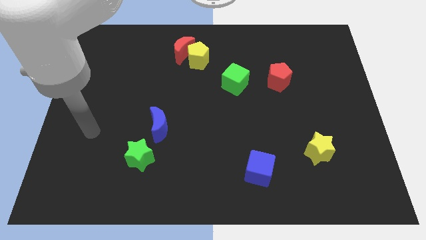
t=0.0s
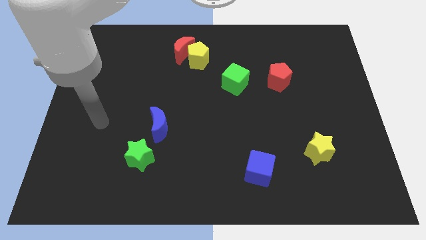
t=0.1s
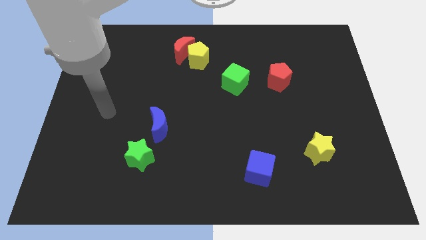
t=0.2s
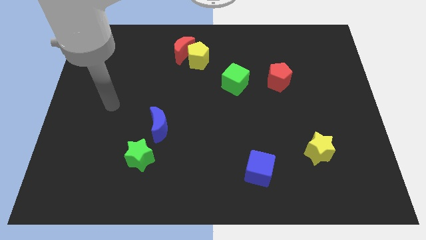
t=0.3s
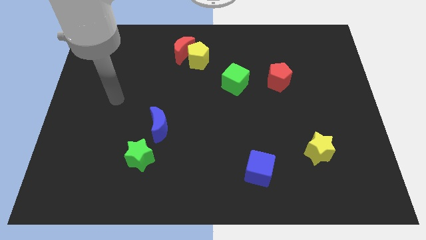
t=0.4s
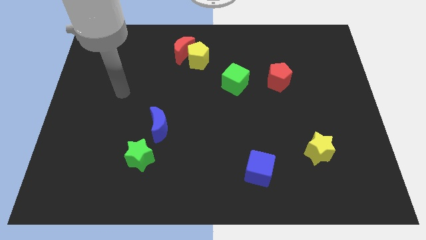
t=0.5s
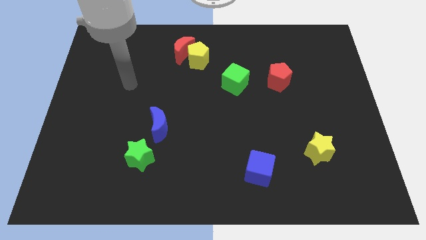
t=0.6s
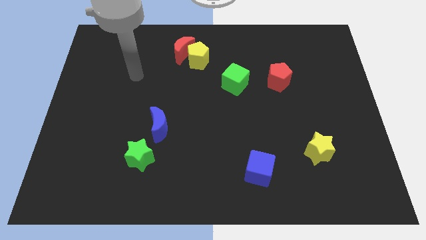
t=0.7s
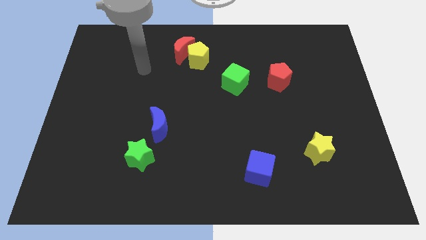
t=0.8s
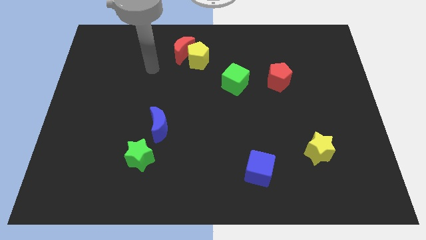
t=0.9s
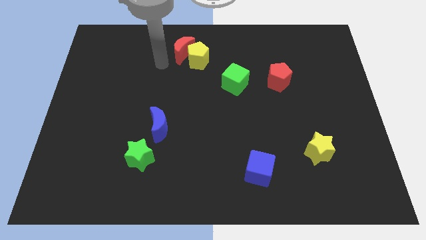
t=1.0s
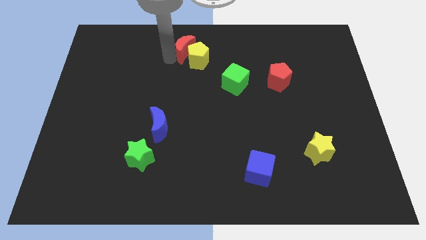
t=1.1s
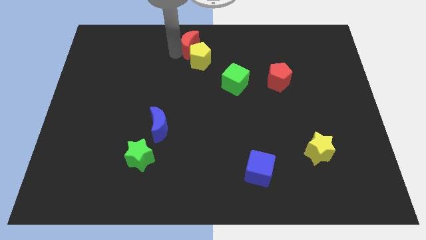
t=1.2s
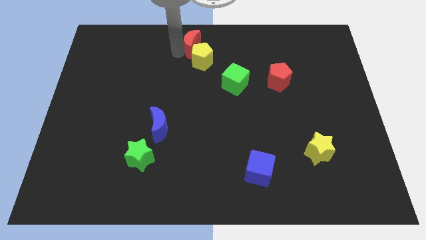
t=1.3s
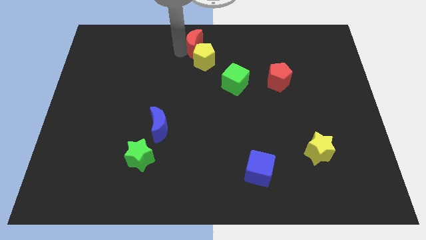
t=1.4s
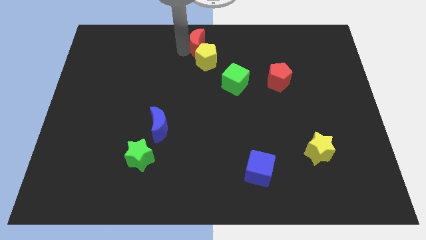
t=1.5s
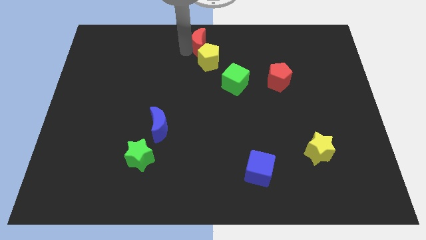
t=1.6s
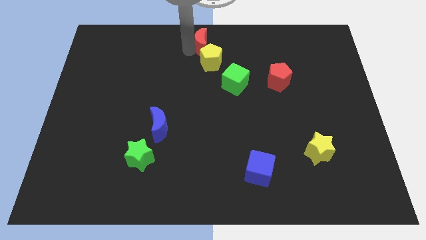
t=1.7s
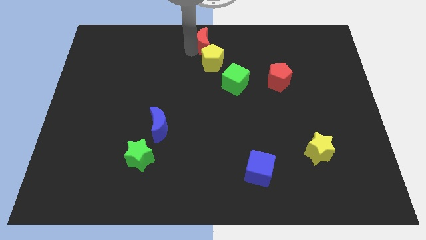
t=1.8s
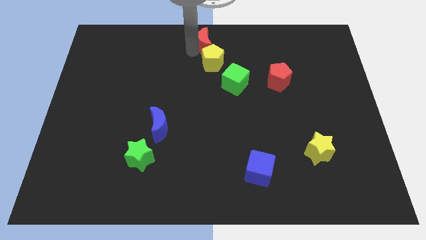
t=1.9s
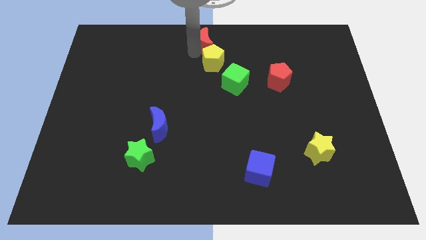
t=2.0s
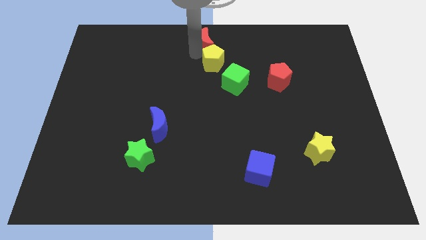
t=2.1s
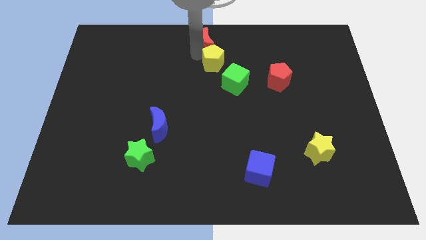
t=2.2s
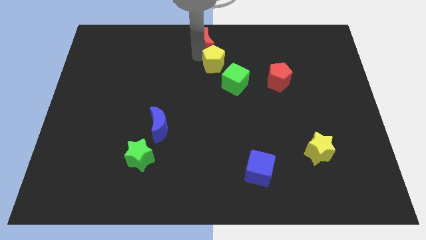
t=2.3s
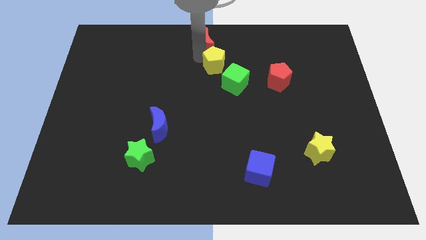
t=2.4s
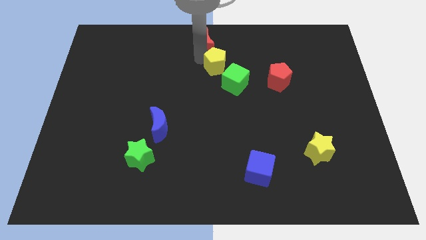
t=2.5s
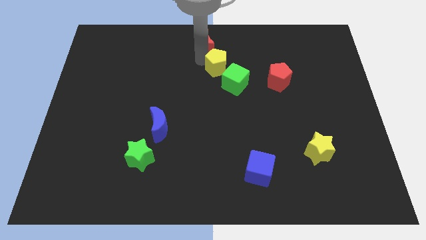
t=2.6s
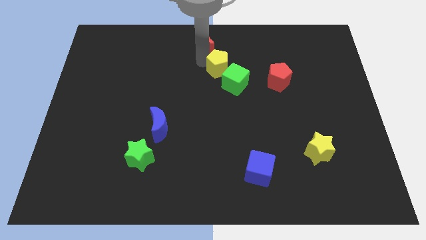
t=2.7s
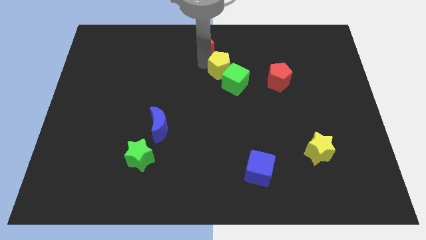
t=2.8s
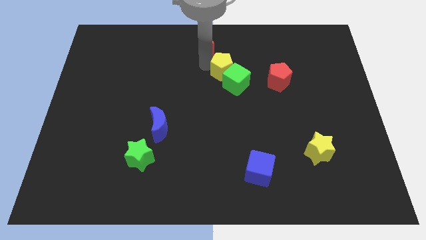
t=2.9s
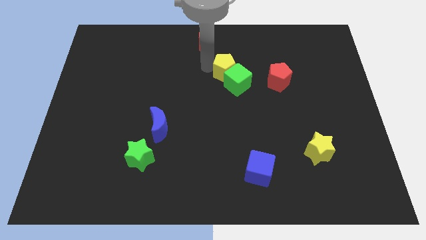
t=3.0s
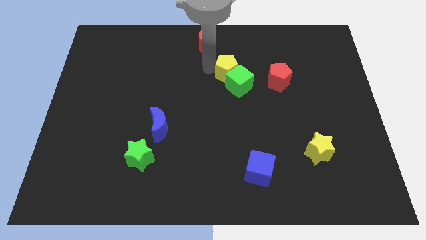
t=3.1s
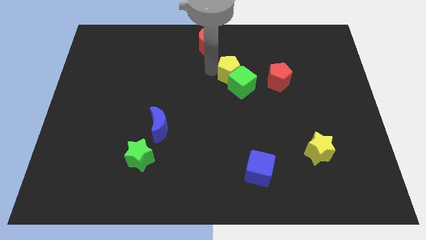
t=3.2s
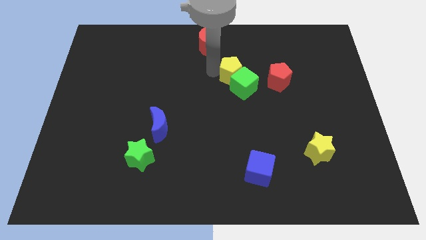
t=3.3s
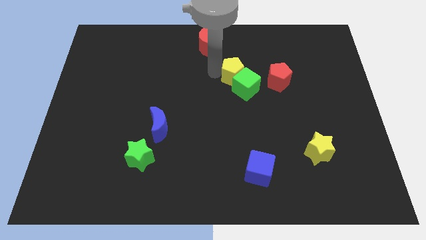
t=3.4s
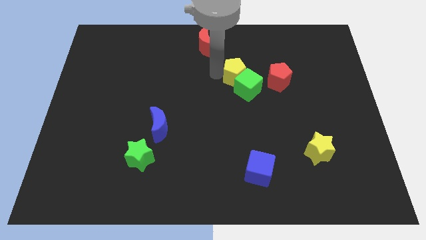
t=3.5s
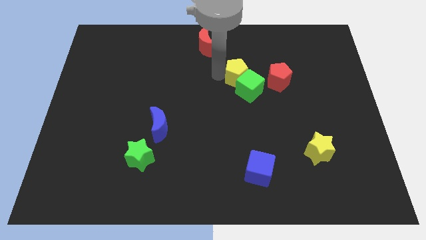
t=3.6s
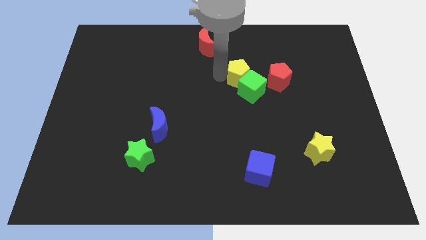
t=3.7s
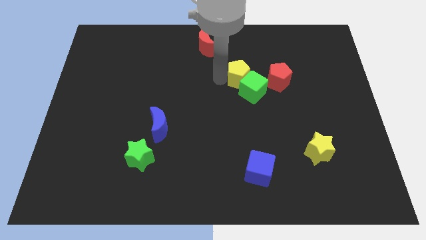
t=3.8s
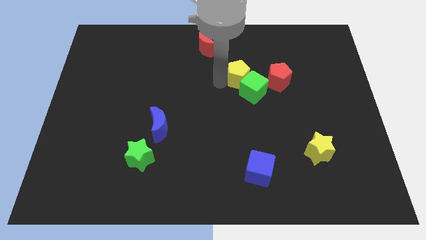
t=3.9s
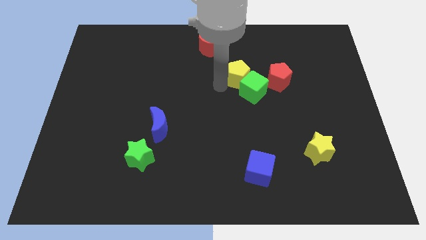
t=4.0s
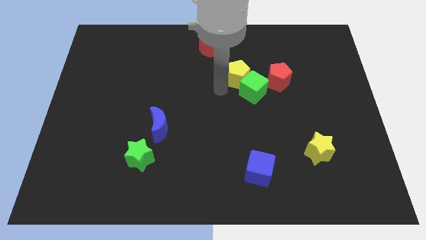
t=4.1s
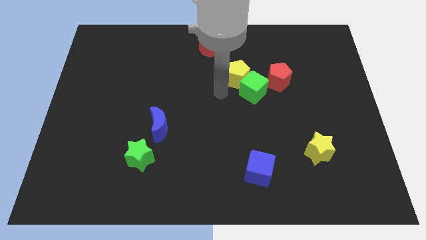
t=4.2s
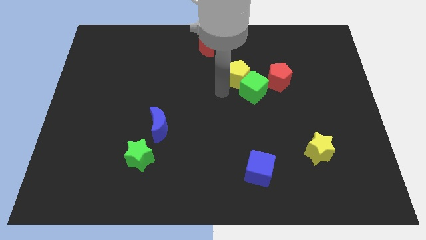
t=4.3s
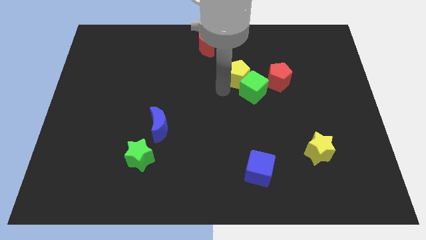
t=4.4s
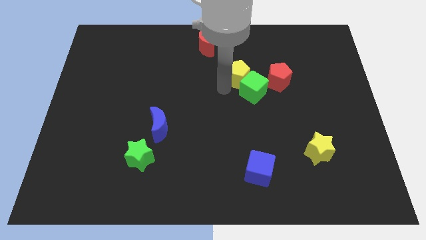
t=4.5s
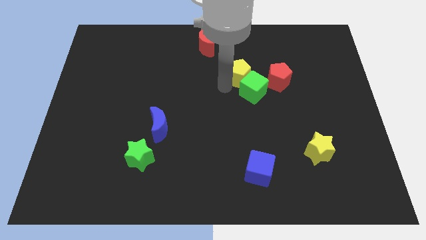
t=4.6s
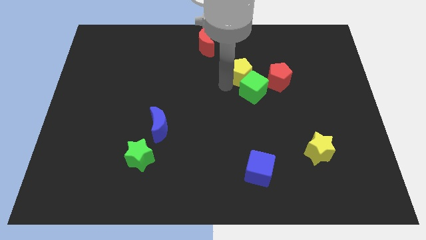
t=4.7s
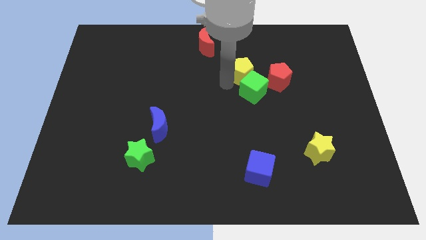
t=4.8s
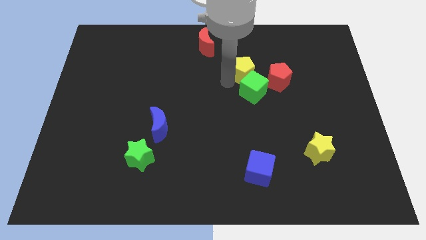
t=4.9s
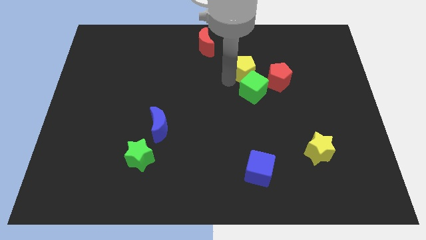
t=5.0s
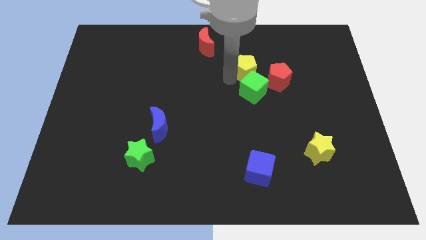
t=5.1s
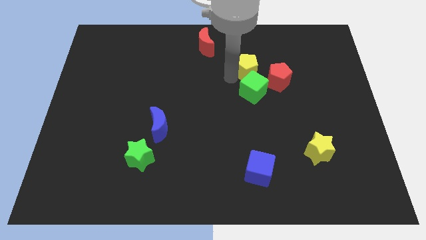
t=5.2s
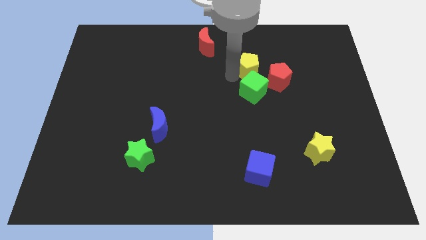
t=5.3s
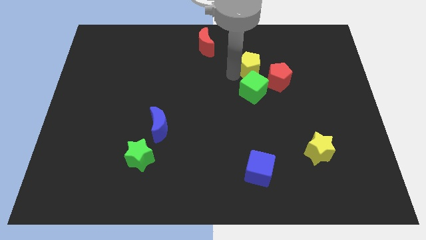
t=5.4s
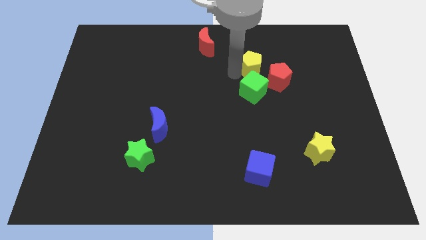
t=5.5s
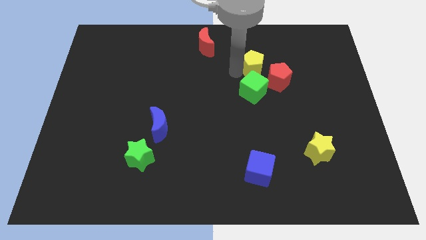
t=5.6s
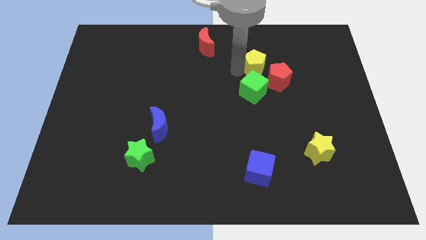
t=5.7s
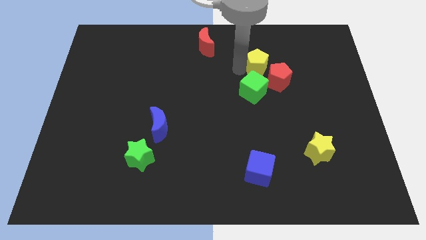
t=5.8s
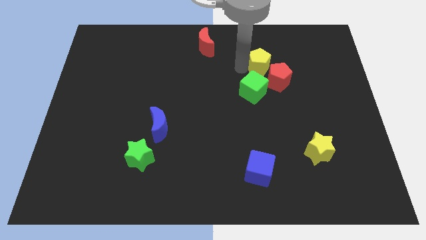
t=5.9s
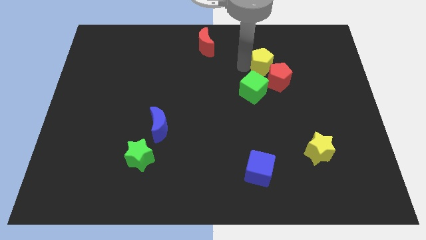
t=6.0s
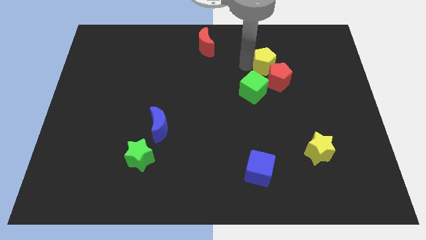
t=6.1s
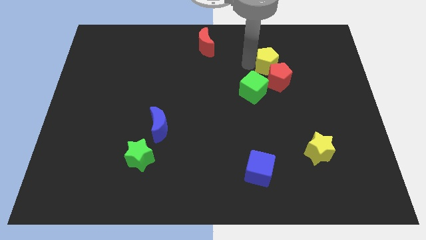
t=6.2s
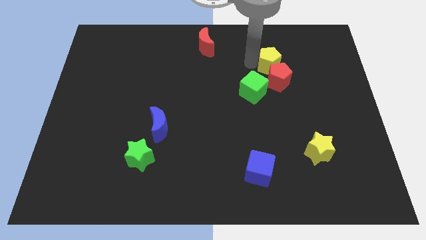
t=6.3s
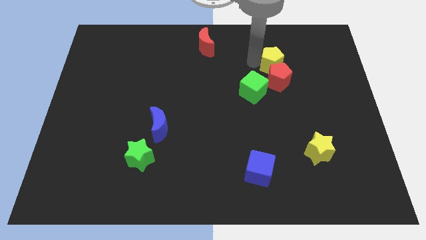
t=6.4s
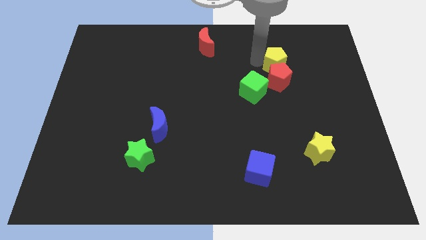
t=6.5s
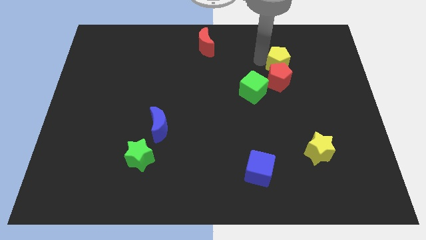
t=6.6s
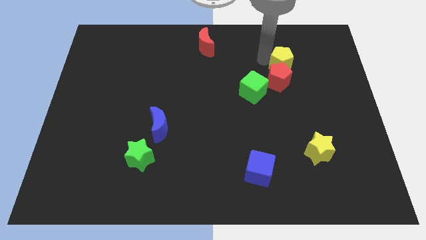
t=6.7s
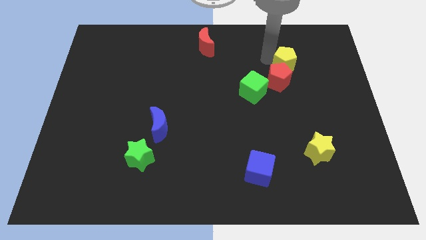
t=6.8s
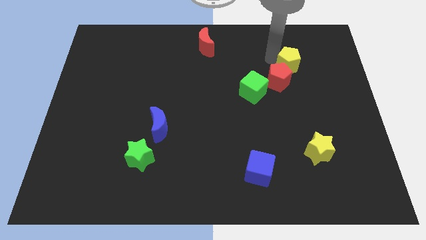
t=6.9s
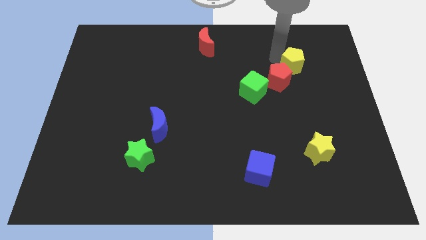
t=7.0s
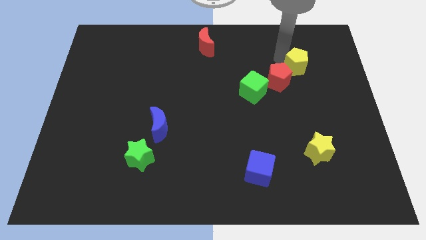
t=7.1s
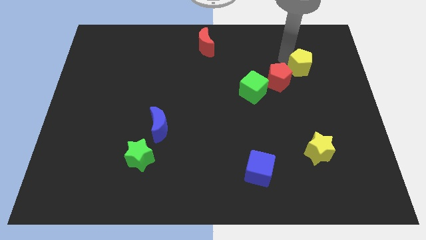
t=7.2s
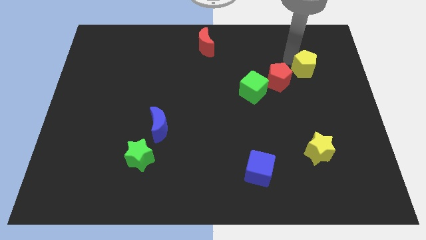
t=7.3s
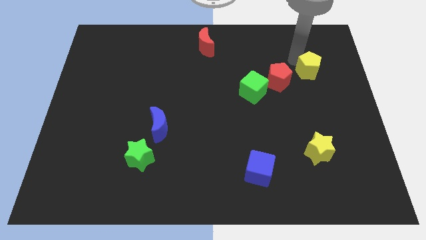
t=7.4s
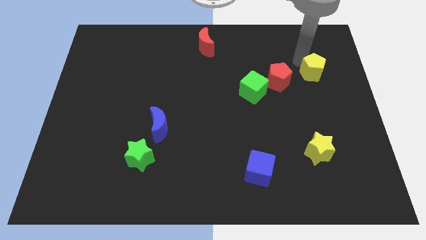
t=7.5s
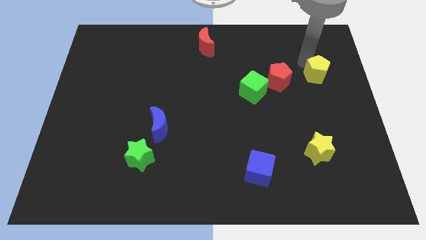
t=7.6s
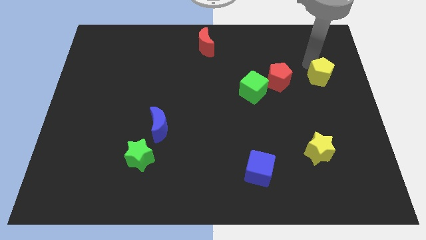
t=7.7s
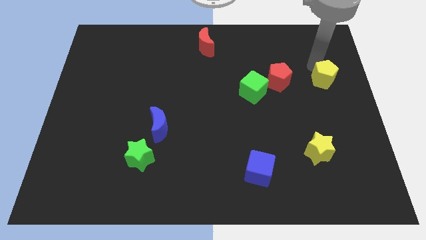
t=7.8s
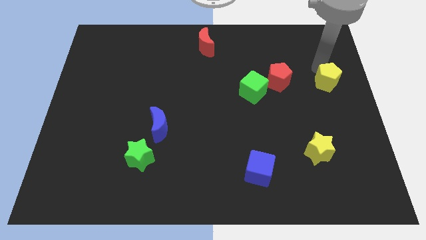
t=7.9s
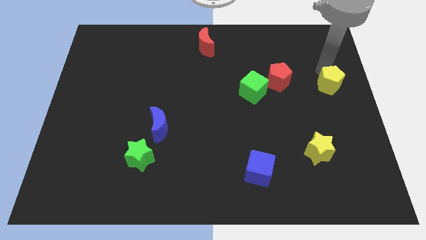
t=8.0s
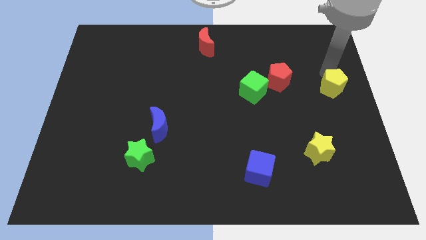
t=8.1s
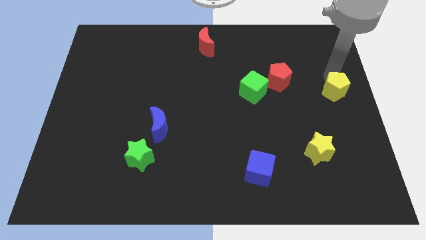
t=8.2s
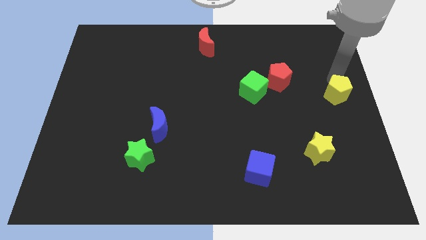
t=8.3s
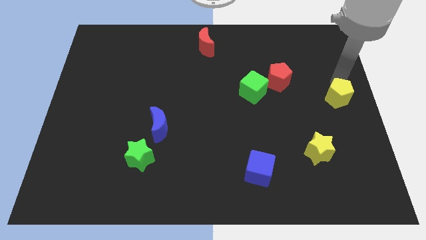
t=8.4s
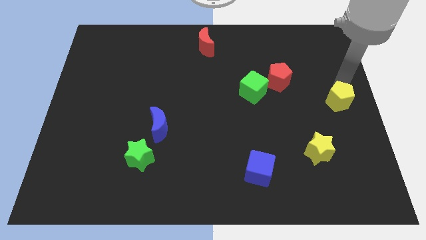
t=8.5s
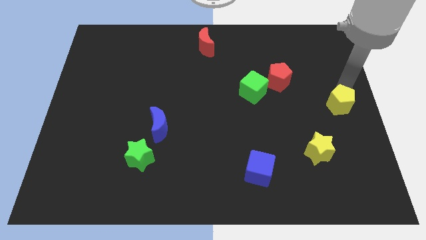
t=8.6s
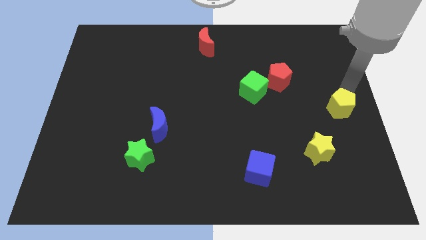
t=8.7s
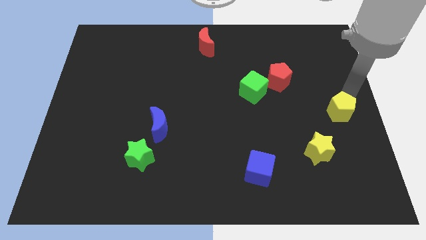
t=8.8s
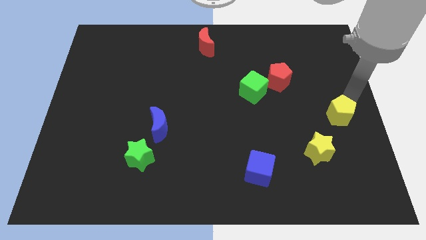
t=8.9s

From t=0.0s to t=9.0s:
slide the yellow pentagon diagonally up and to the right of the yellow star
